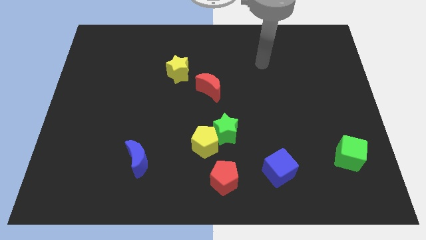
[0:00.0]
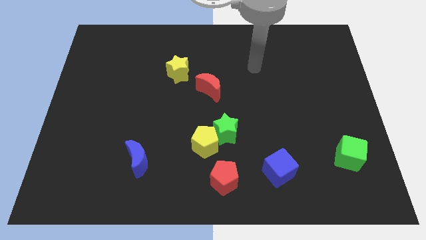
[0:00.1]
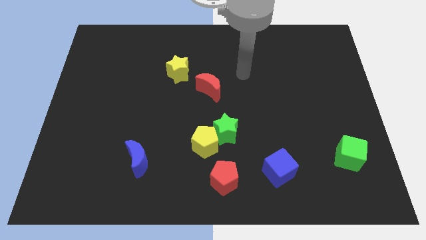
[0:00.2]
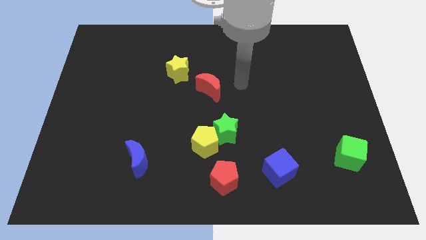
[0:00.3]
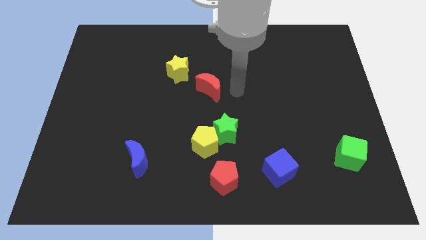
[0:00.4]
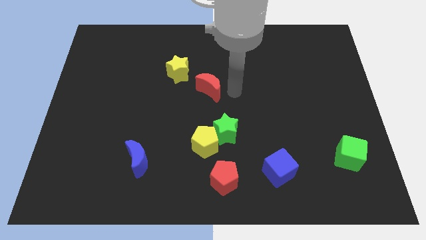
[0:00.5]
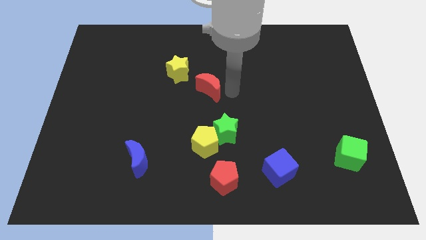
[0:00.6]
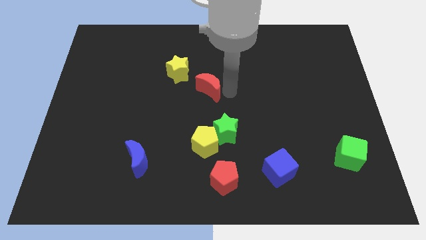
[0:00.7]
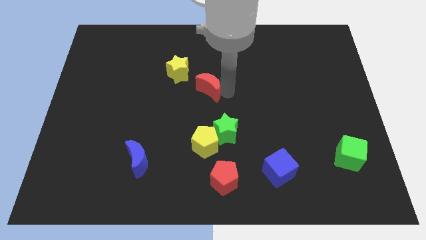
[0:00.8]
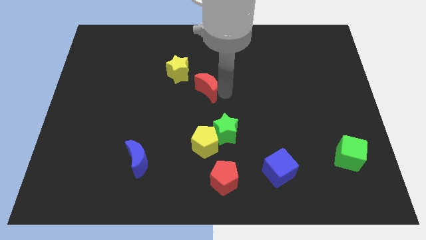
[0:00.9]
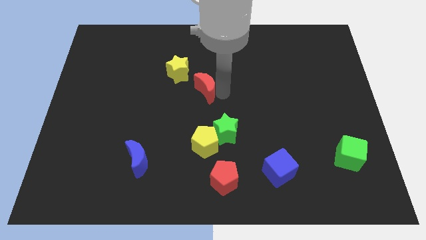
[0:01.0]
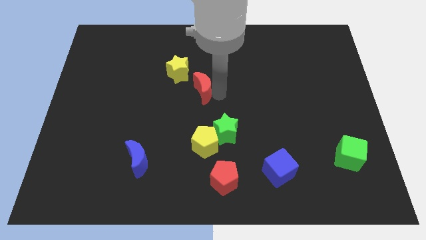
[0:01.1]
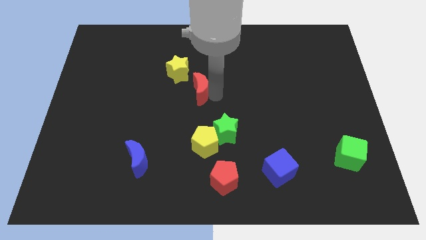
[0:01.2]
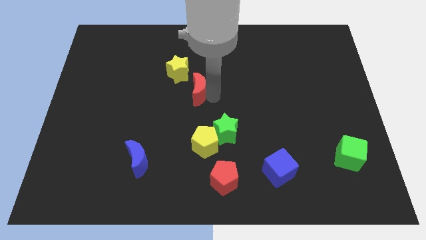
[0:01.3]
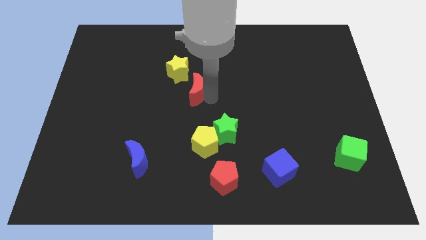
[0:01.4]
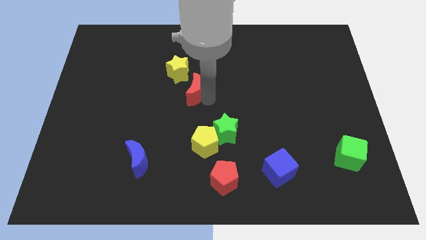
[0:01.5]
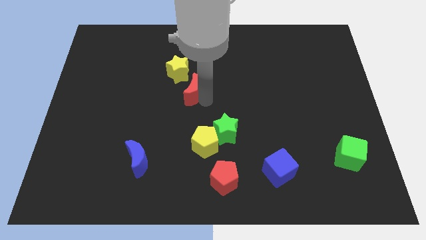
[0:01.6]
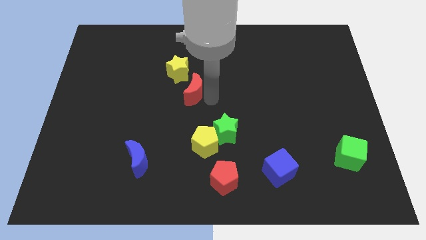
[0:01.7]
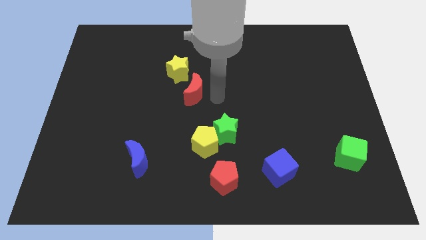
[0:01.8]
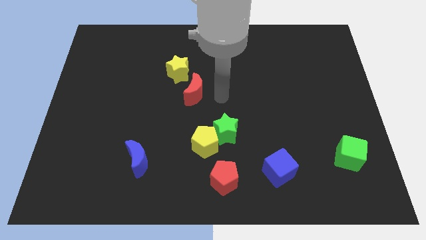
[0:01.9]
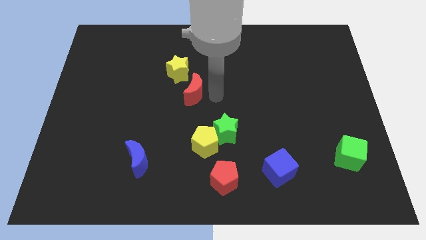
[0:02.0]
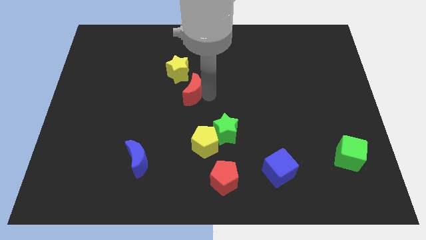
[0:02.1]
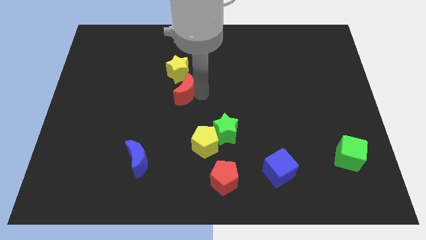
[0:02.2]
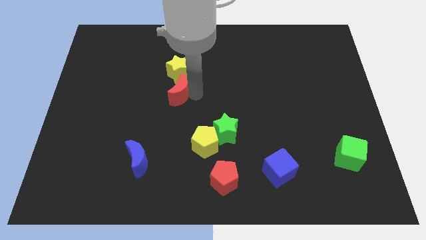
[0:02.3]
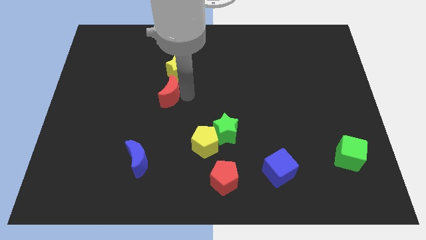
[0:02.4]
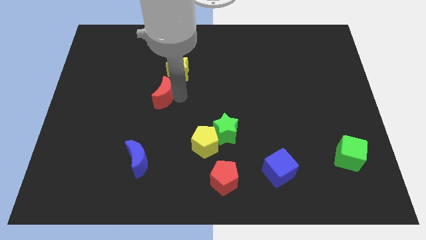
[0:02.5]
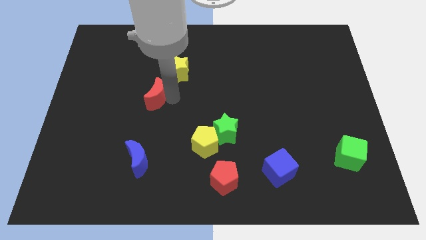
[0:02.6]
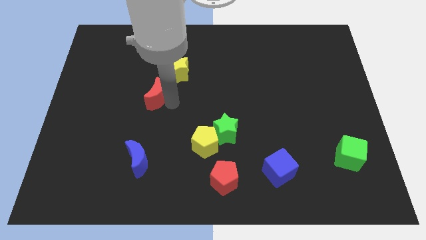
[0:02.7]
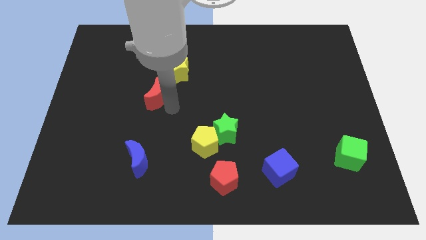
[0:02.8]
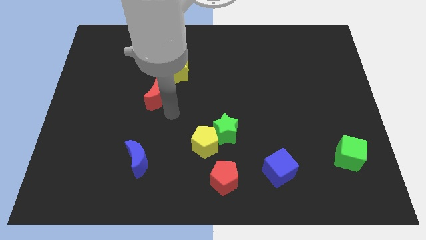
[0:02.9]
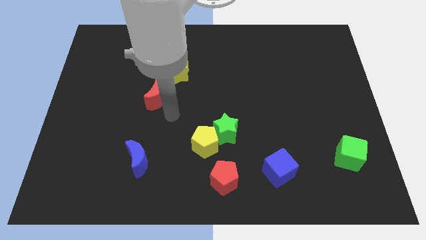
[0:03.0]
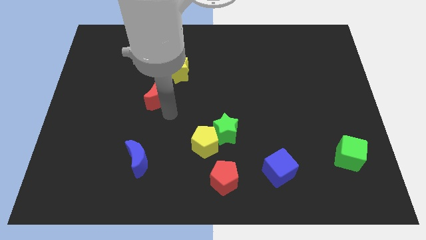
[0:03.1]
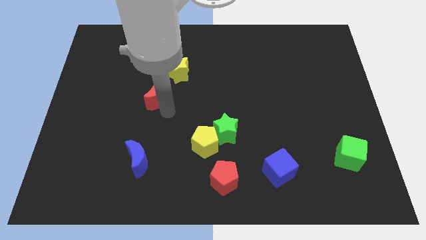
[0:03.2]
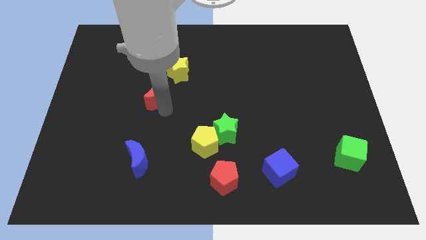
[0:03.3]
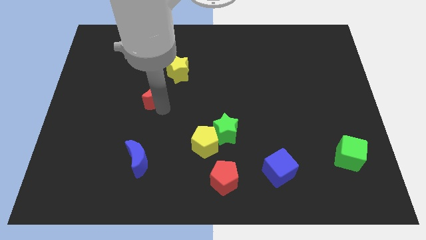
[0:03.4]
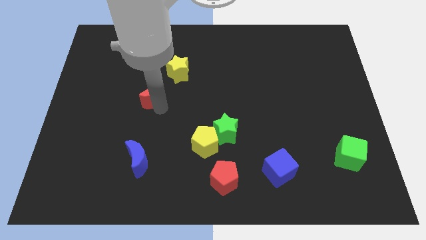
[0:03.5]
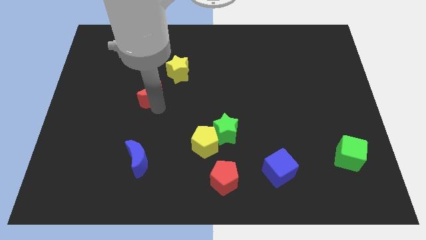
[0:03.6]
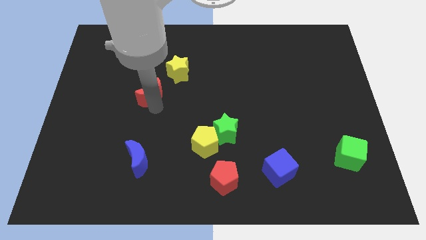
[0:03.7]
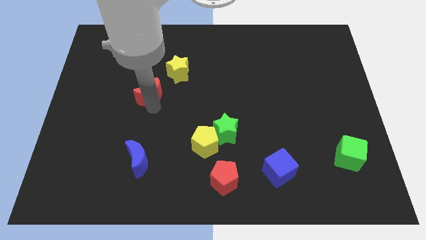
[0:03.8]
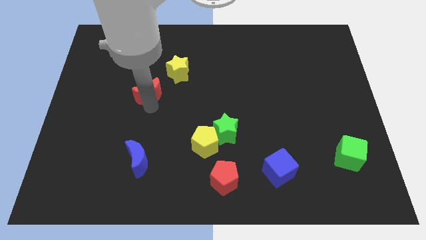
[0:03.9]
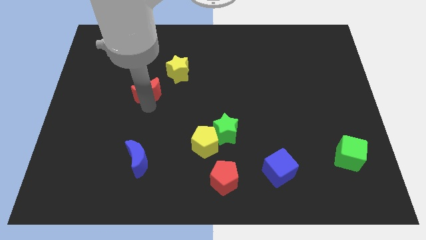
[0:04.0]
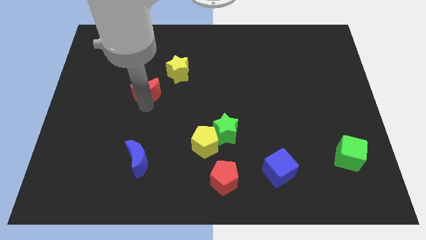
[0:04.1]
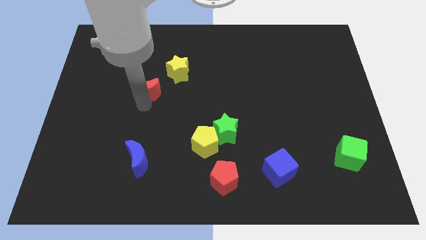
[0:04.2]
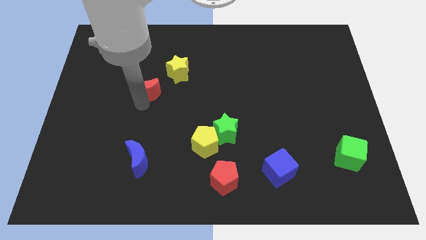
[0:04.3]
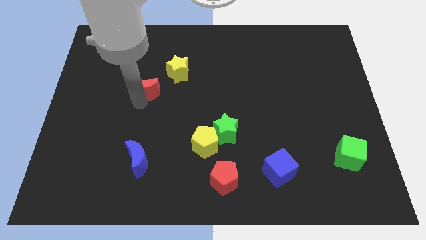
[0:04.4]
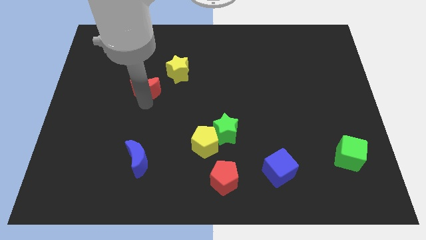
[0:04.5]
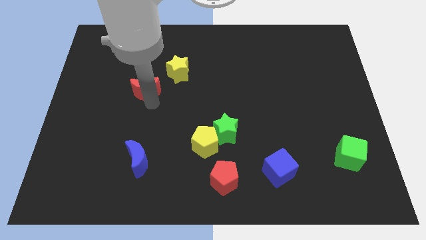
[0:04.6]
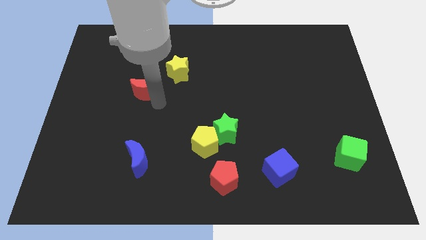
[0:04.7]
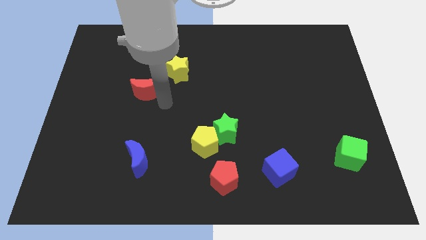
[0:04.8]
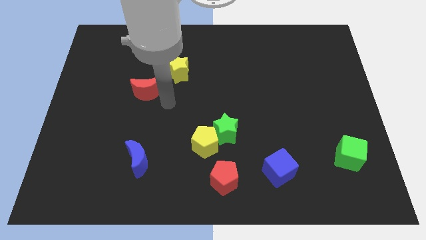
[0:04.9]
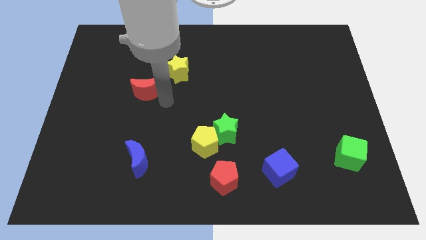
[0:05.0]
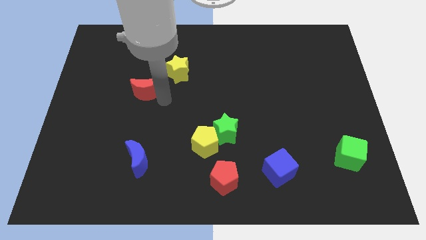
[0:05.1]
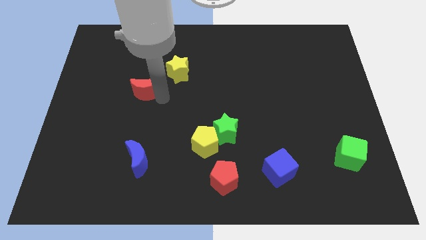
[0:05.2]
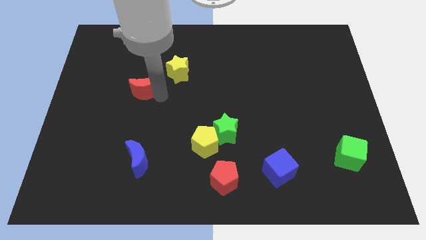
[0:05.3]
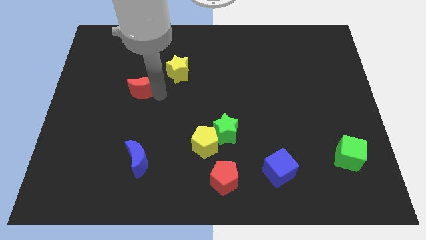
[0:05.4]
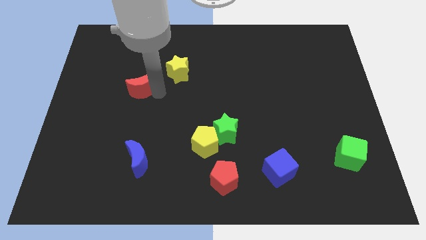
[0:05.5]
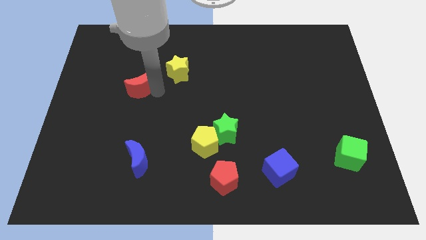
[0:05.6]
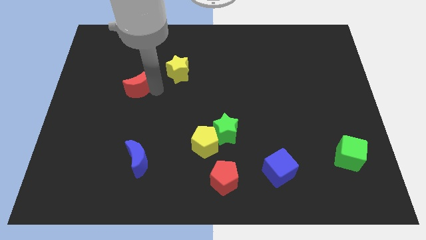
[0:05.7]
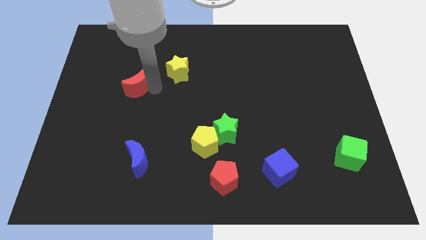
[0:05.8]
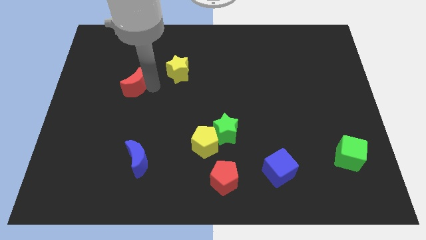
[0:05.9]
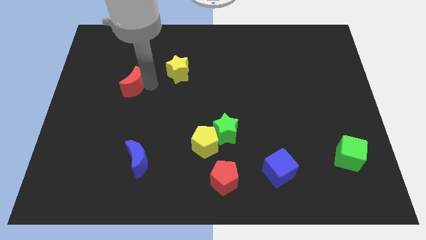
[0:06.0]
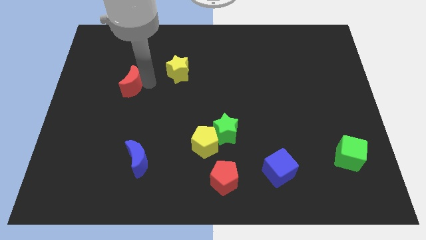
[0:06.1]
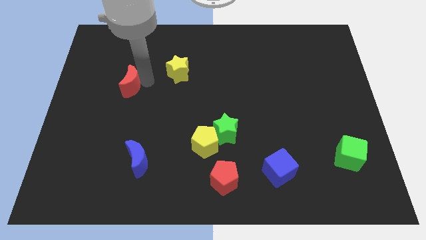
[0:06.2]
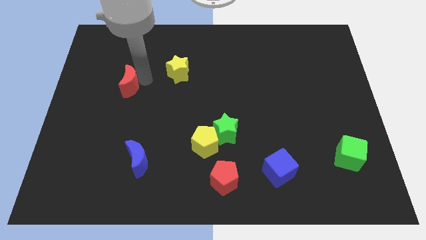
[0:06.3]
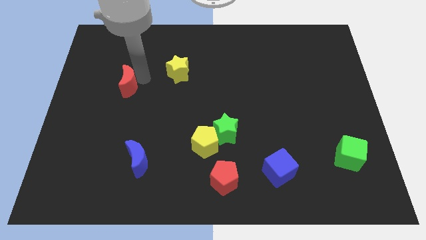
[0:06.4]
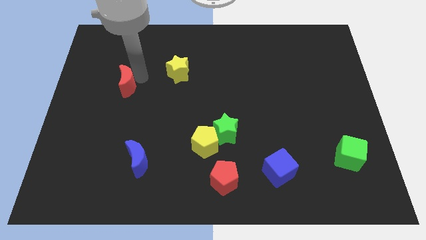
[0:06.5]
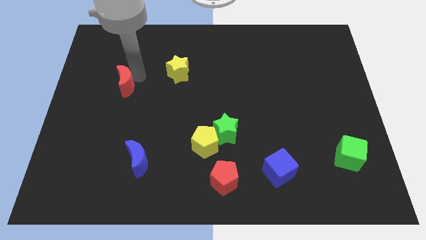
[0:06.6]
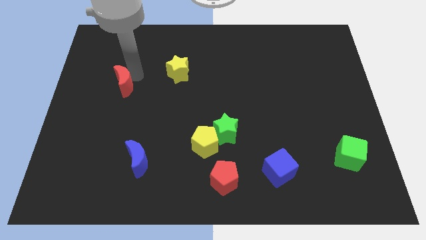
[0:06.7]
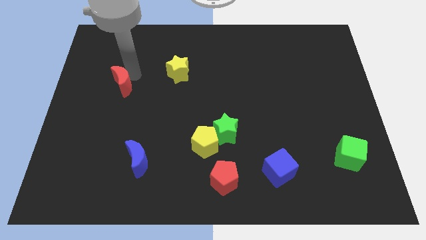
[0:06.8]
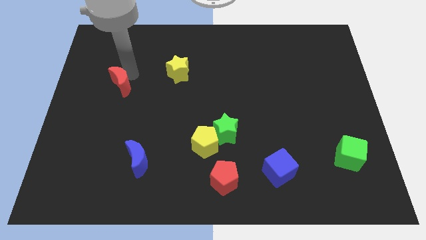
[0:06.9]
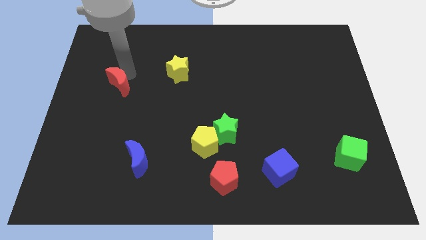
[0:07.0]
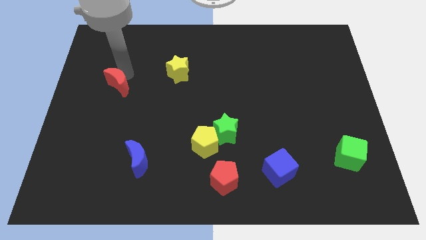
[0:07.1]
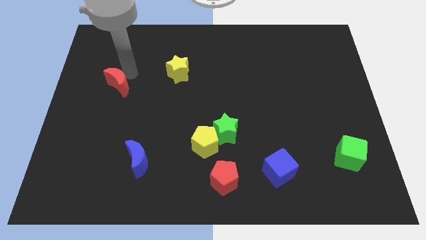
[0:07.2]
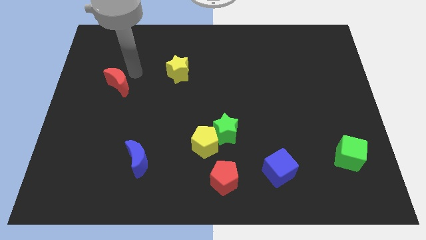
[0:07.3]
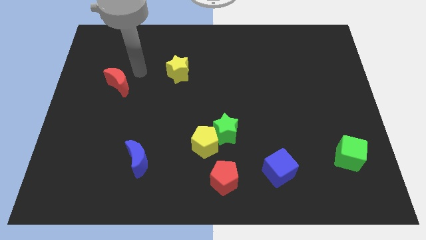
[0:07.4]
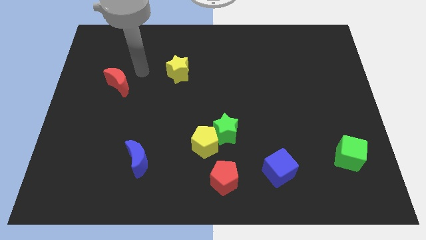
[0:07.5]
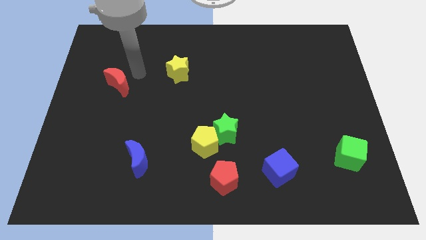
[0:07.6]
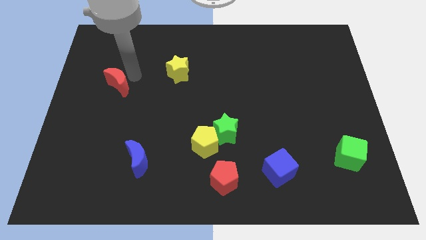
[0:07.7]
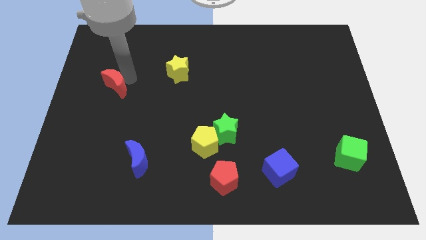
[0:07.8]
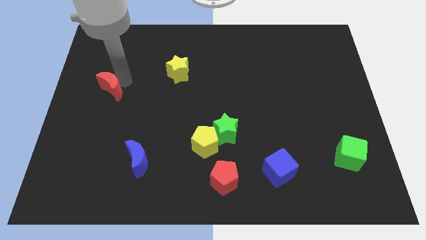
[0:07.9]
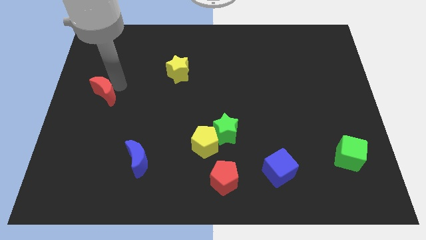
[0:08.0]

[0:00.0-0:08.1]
put the red moon to the center left
